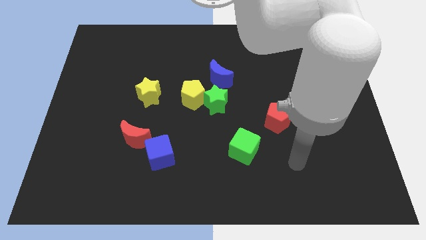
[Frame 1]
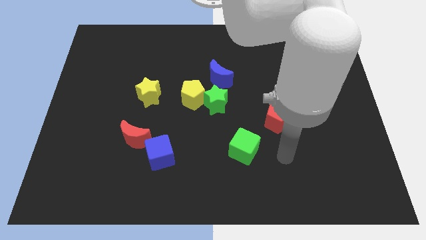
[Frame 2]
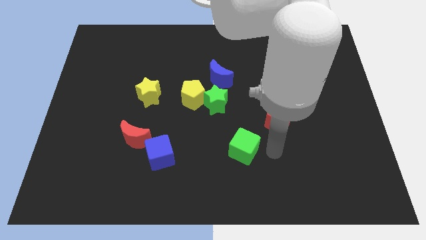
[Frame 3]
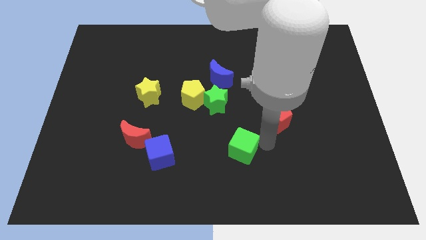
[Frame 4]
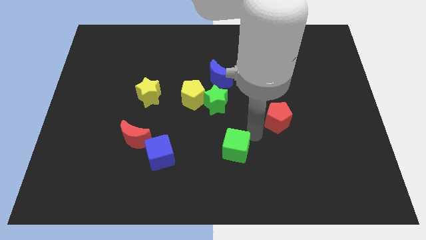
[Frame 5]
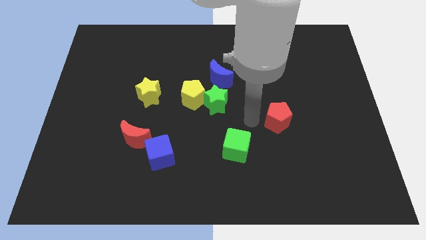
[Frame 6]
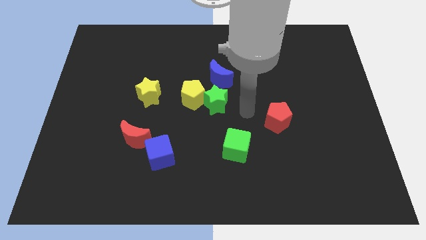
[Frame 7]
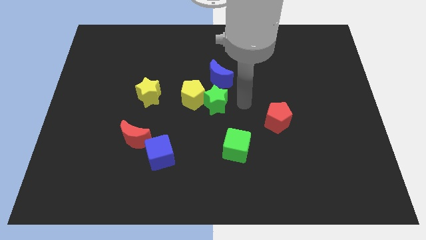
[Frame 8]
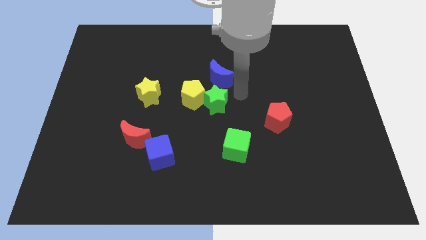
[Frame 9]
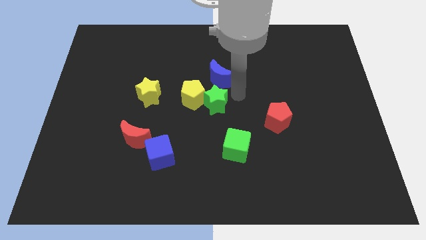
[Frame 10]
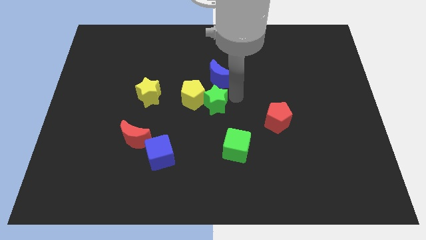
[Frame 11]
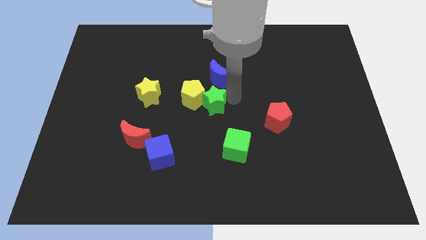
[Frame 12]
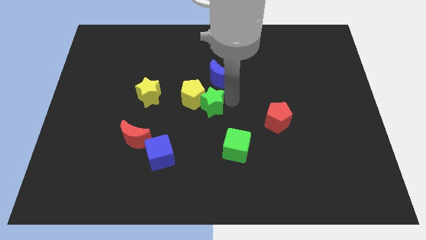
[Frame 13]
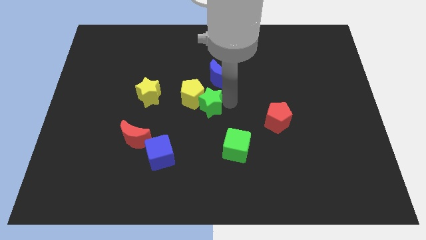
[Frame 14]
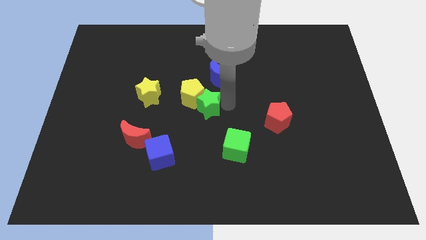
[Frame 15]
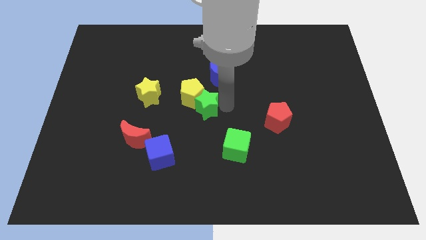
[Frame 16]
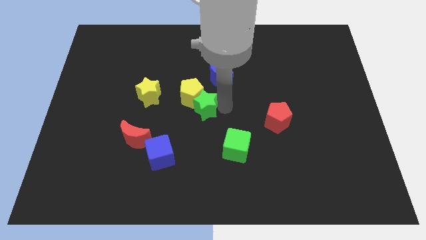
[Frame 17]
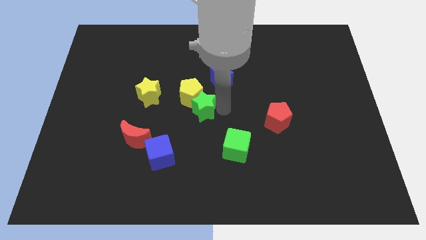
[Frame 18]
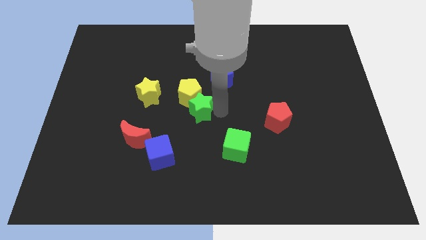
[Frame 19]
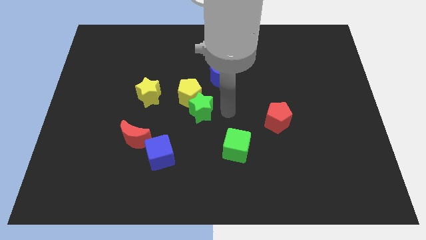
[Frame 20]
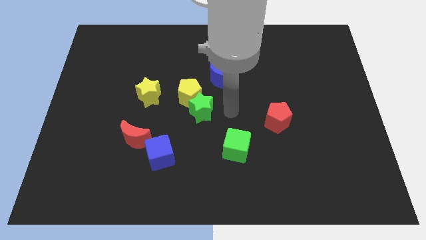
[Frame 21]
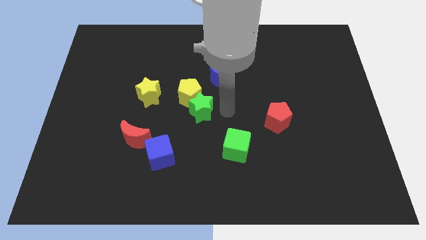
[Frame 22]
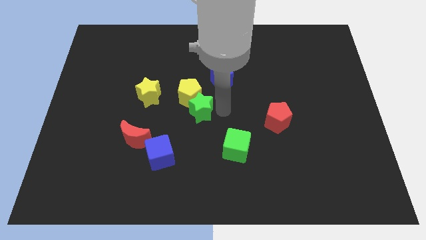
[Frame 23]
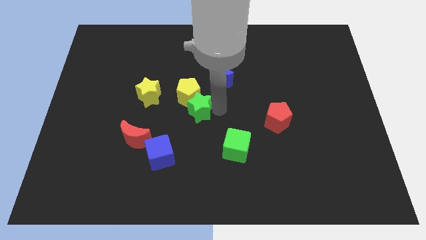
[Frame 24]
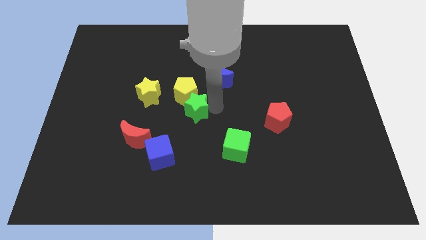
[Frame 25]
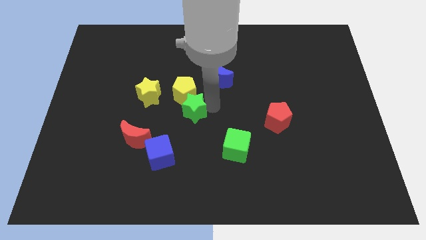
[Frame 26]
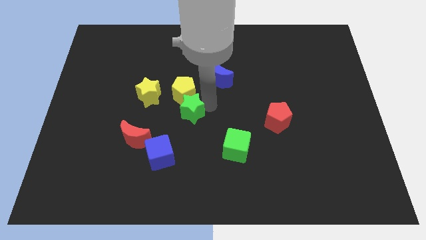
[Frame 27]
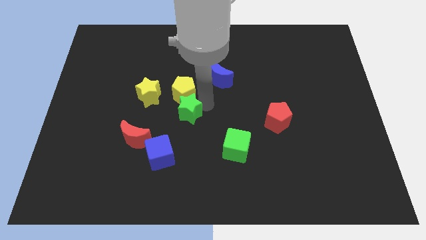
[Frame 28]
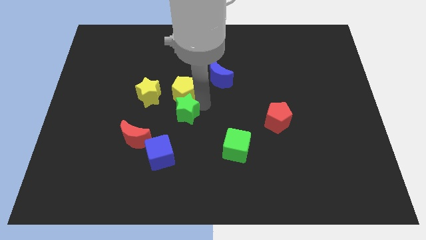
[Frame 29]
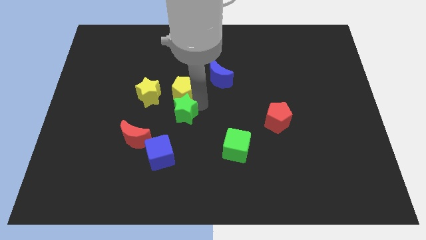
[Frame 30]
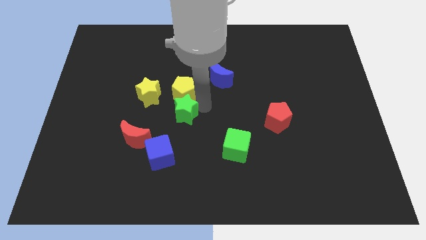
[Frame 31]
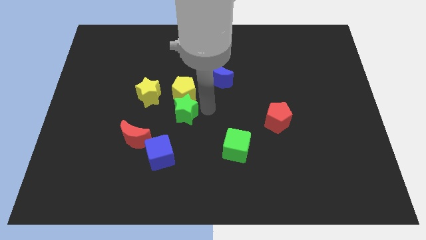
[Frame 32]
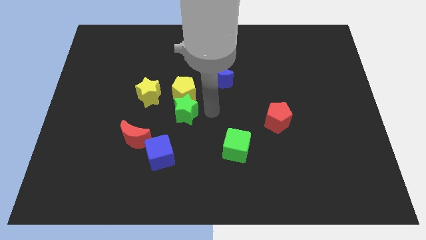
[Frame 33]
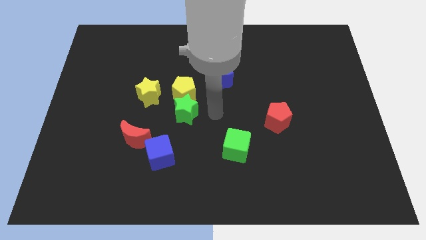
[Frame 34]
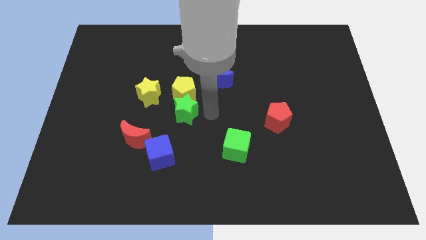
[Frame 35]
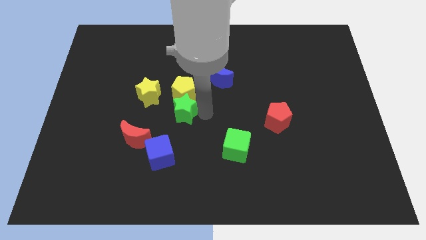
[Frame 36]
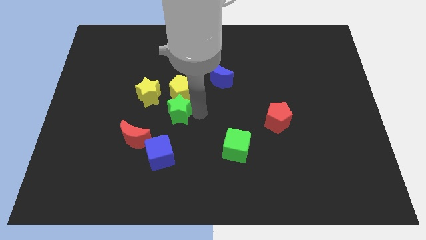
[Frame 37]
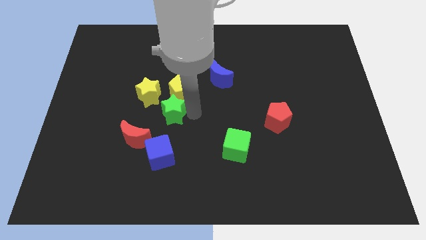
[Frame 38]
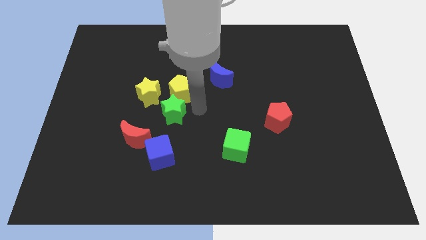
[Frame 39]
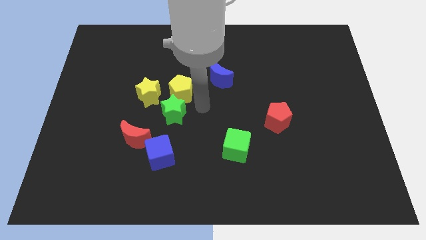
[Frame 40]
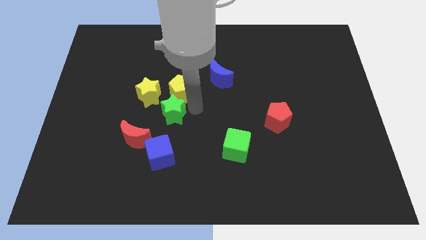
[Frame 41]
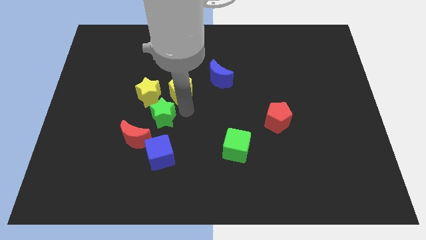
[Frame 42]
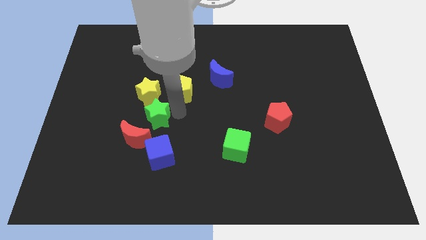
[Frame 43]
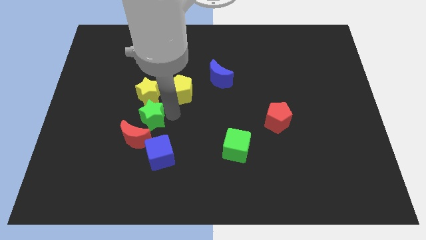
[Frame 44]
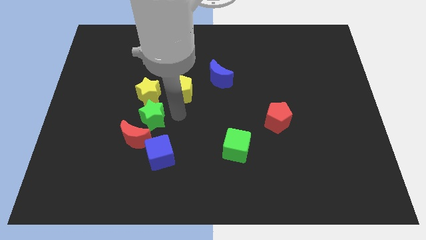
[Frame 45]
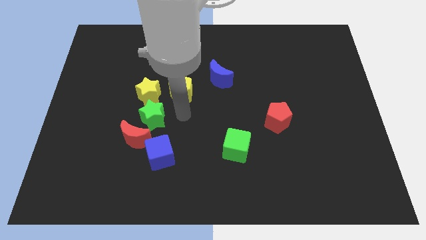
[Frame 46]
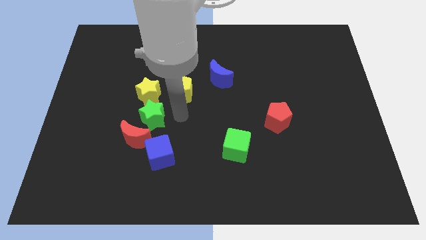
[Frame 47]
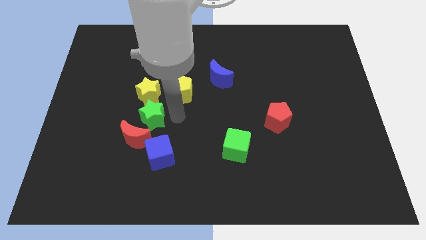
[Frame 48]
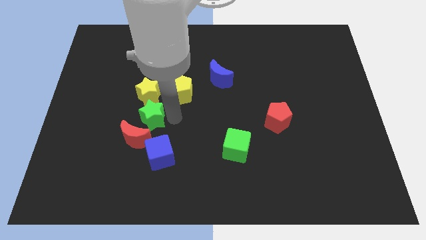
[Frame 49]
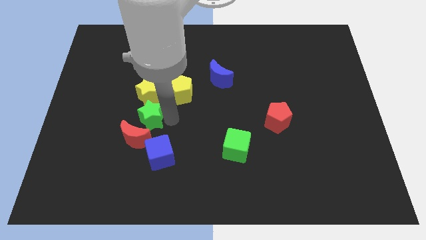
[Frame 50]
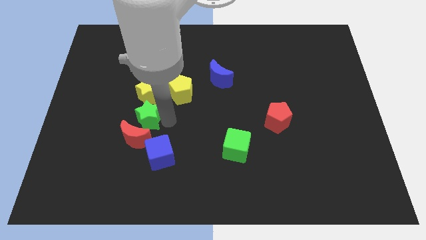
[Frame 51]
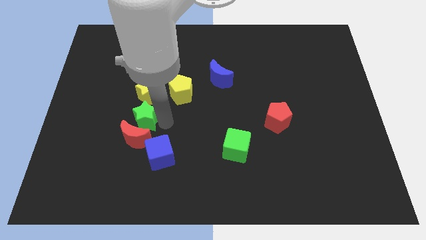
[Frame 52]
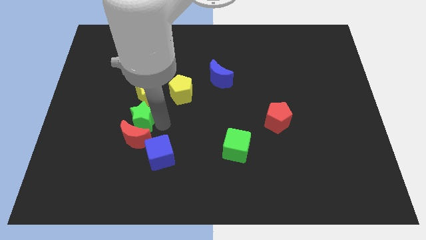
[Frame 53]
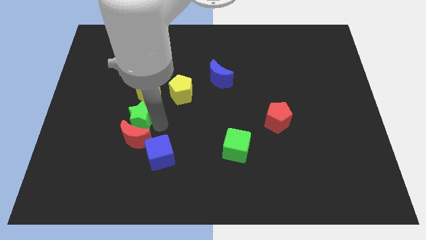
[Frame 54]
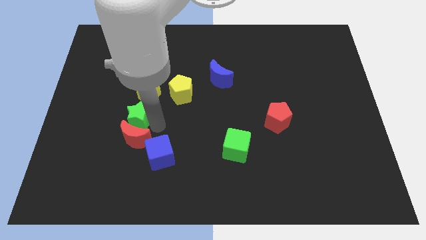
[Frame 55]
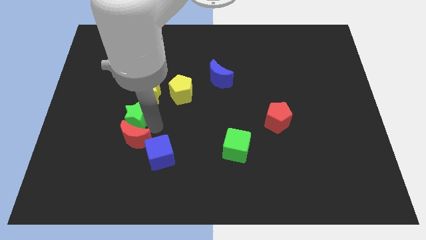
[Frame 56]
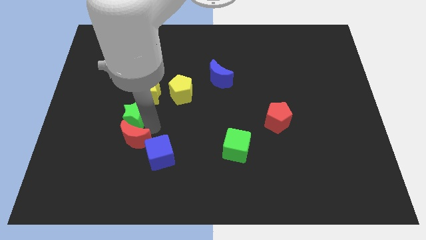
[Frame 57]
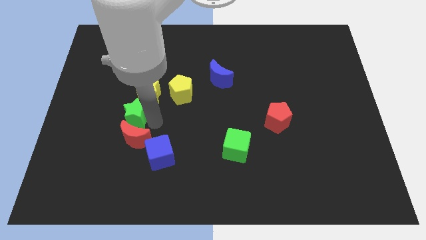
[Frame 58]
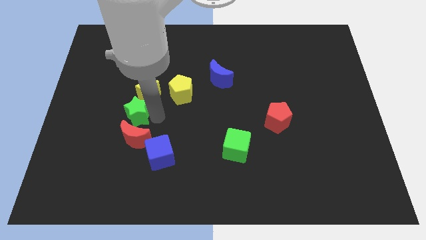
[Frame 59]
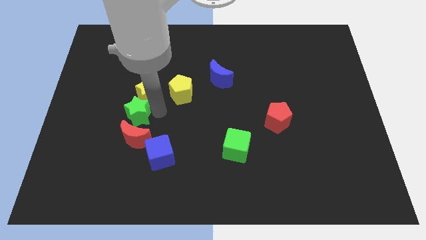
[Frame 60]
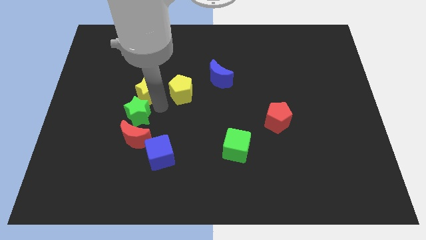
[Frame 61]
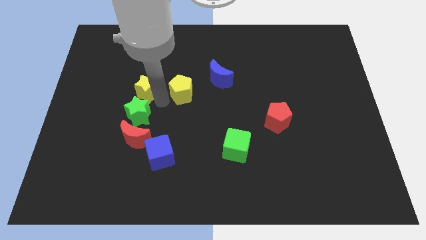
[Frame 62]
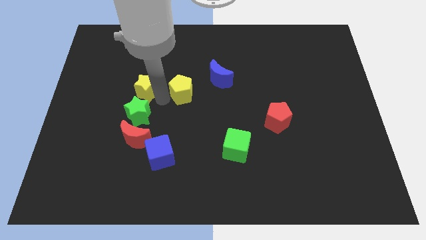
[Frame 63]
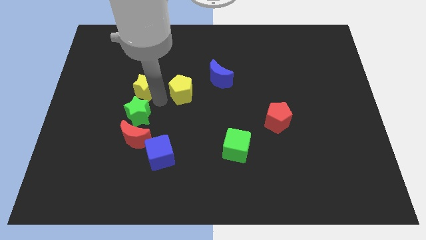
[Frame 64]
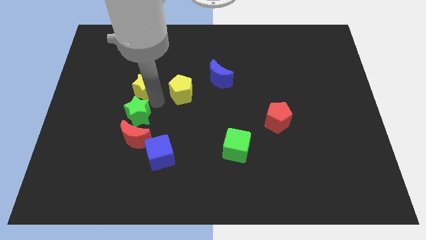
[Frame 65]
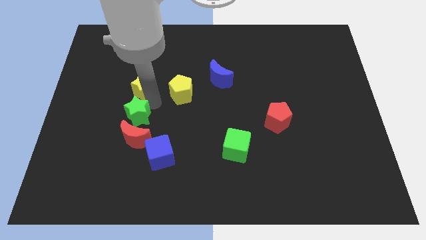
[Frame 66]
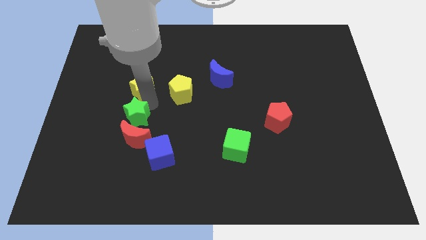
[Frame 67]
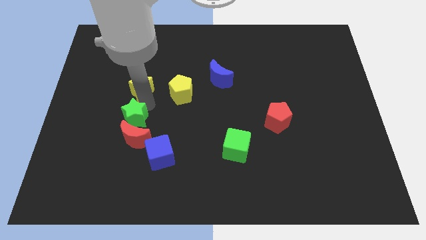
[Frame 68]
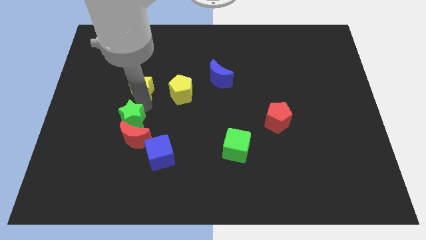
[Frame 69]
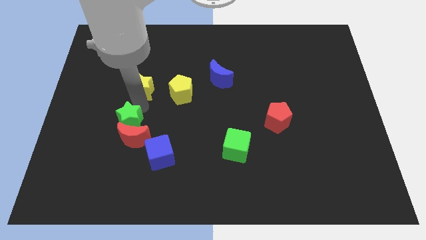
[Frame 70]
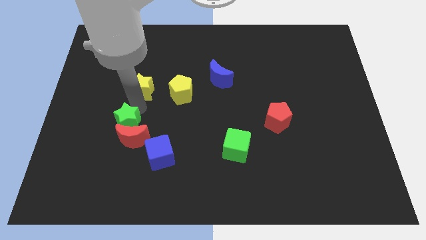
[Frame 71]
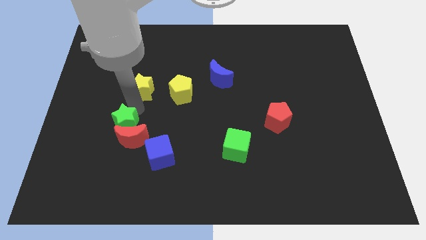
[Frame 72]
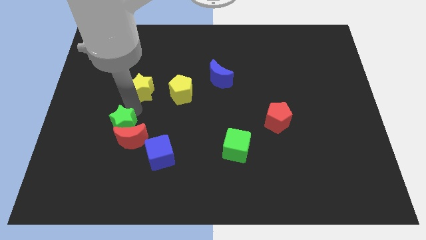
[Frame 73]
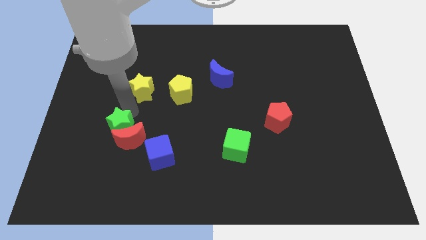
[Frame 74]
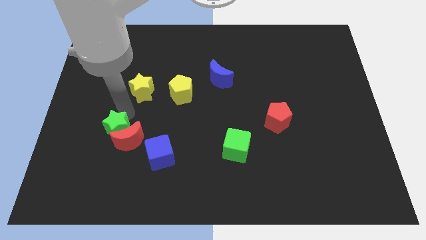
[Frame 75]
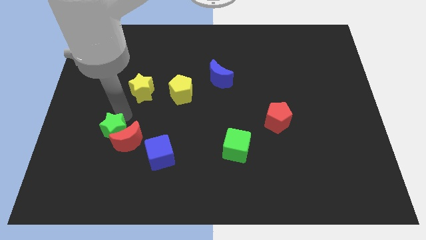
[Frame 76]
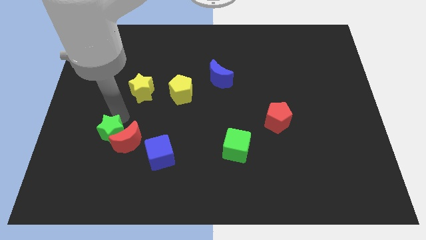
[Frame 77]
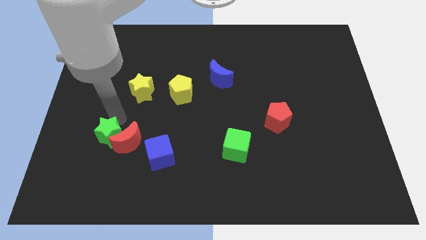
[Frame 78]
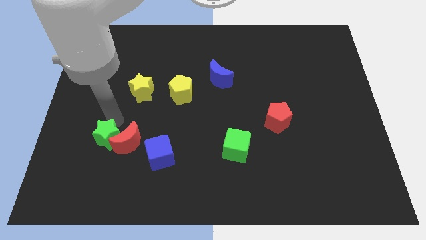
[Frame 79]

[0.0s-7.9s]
put the green star to the left side of the blue cube

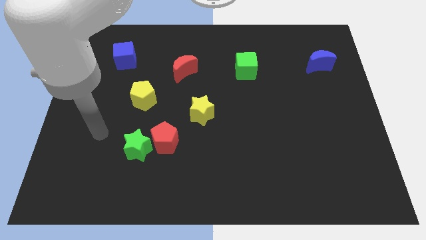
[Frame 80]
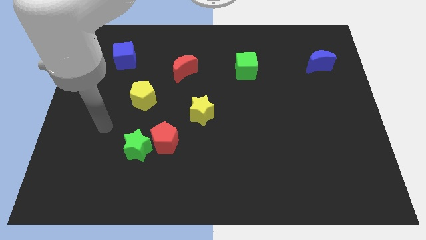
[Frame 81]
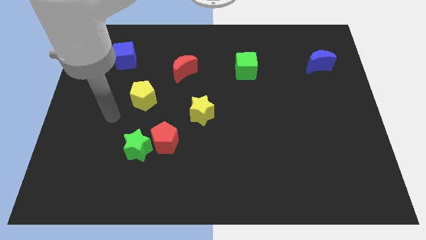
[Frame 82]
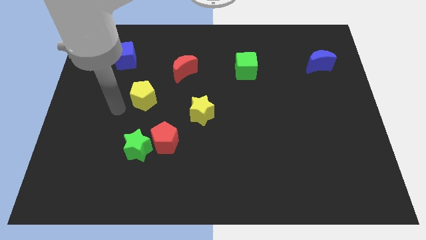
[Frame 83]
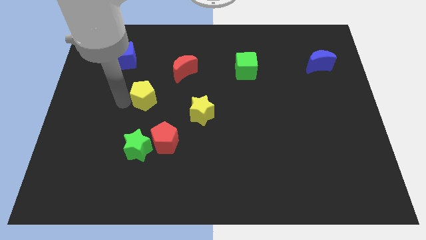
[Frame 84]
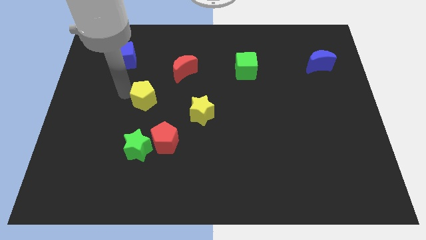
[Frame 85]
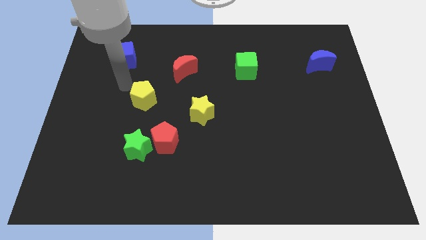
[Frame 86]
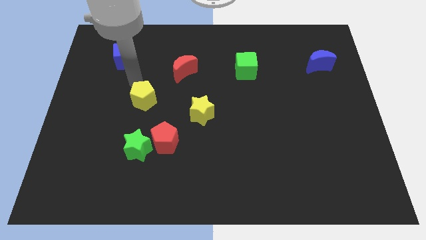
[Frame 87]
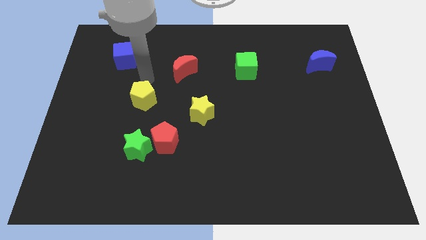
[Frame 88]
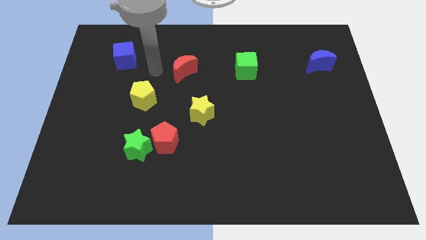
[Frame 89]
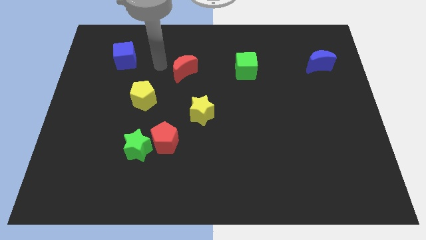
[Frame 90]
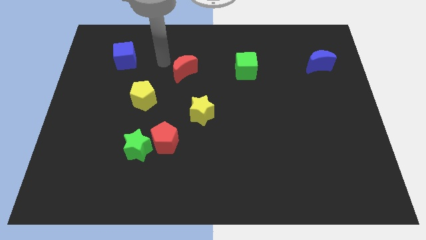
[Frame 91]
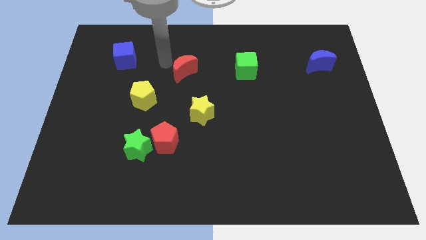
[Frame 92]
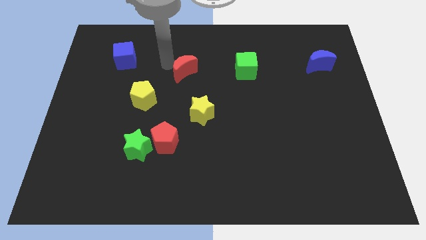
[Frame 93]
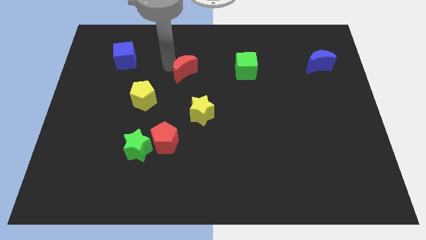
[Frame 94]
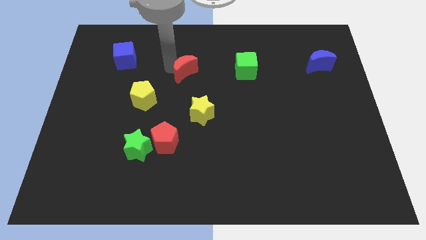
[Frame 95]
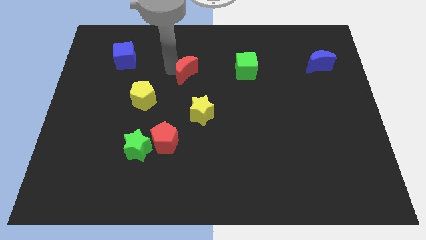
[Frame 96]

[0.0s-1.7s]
move the red moon to the top of the yellow star
